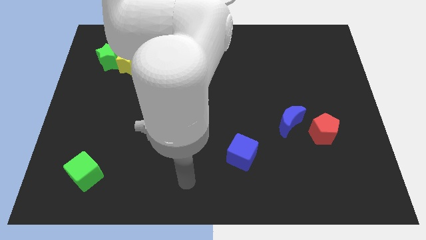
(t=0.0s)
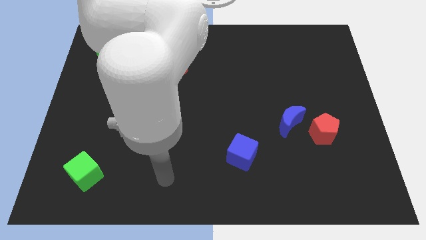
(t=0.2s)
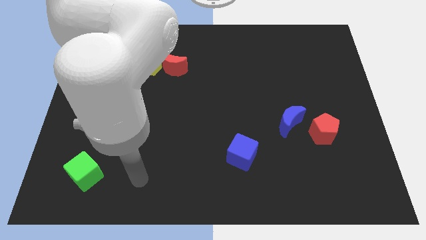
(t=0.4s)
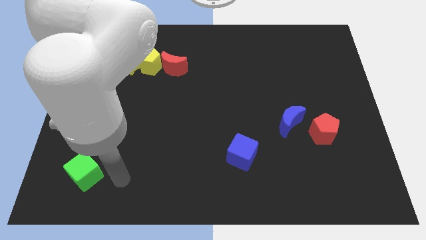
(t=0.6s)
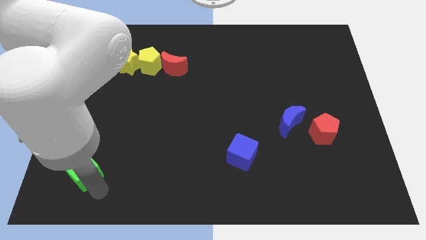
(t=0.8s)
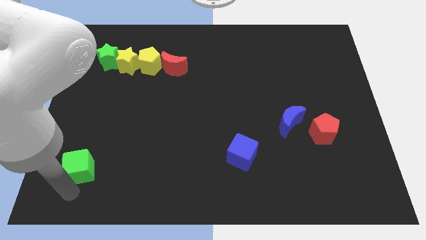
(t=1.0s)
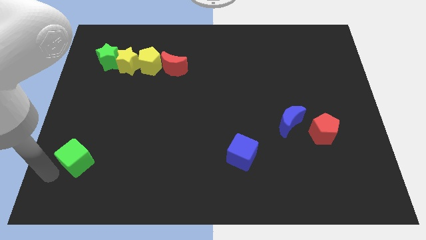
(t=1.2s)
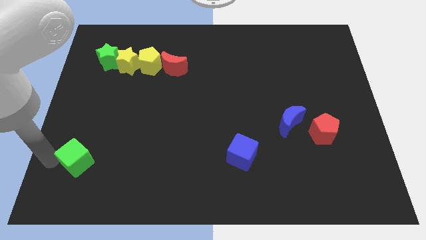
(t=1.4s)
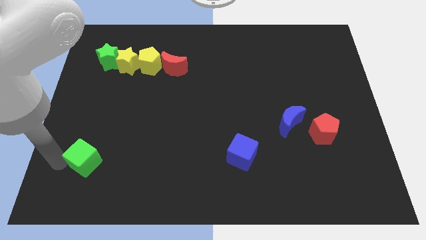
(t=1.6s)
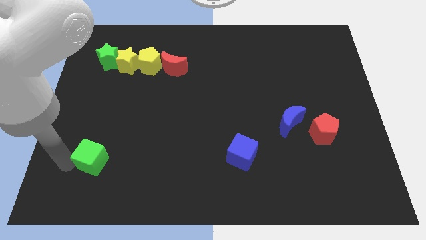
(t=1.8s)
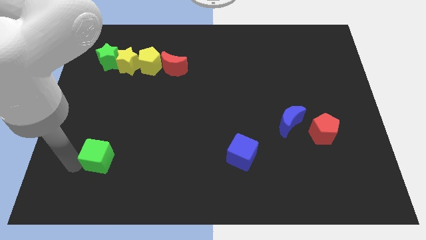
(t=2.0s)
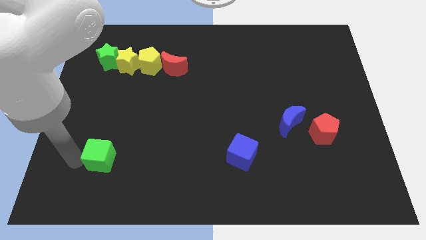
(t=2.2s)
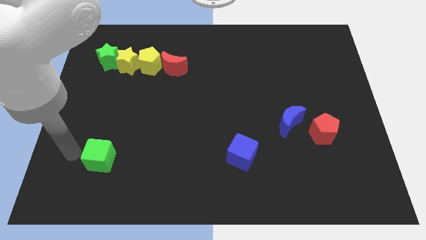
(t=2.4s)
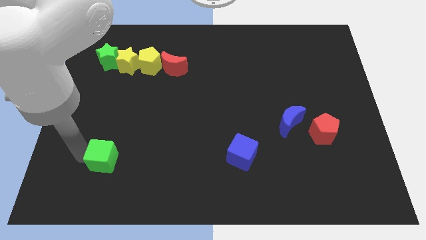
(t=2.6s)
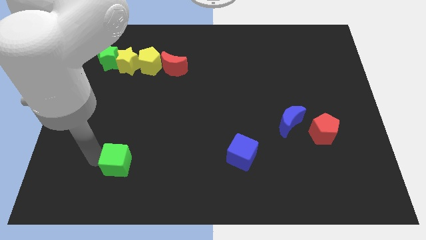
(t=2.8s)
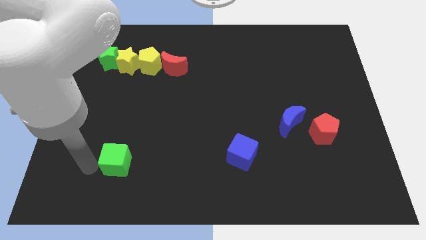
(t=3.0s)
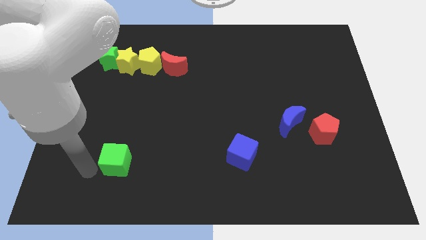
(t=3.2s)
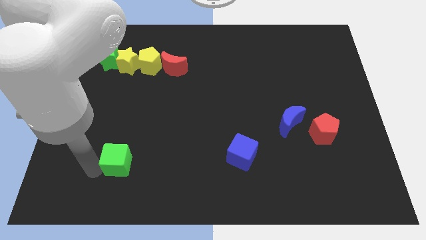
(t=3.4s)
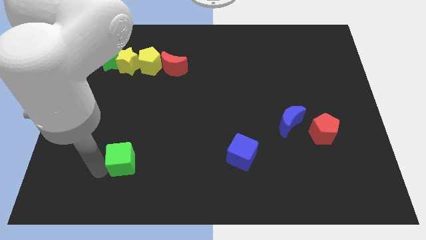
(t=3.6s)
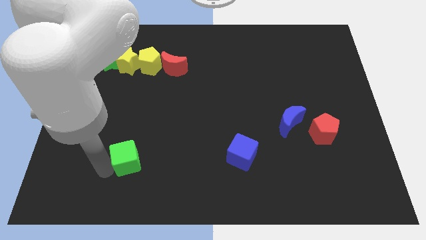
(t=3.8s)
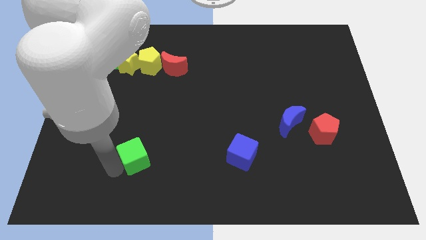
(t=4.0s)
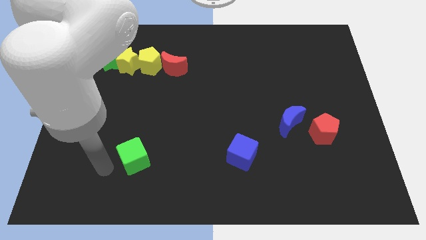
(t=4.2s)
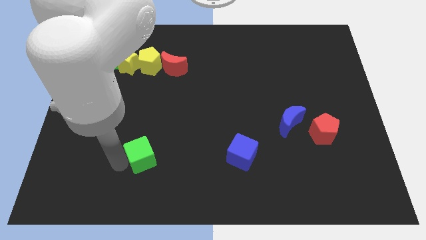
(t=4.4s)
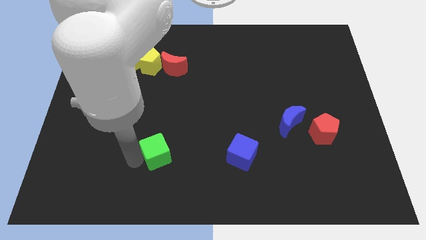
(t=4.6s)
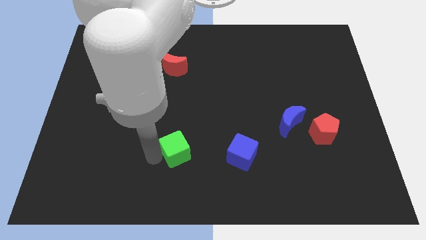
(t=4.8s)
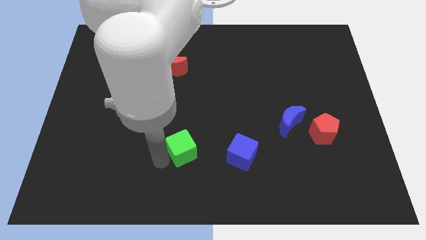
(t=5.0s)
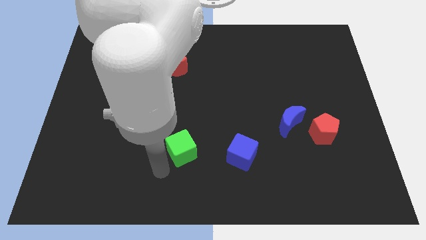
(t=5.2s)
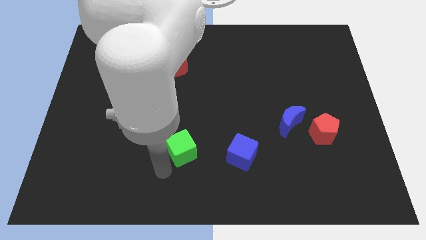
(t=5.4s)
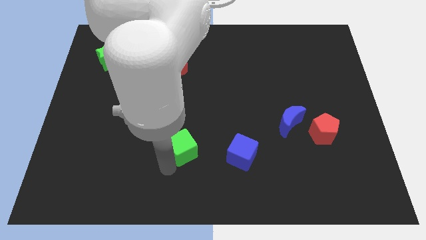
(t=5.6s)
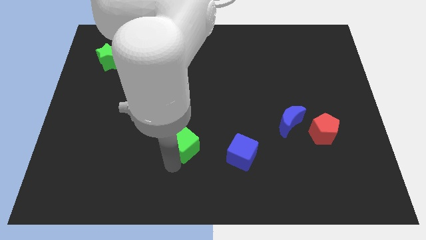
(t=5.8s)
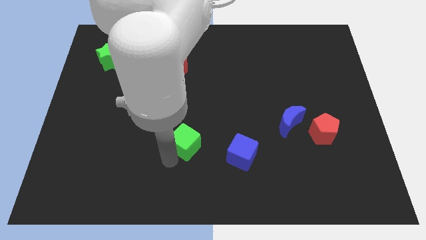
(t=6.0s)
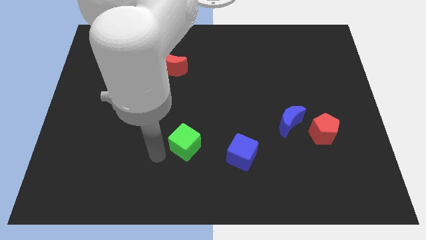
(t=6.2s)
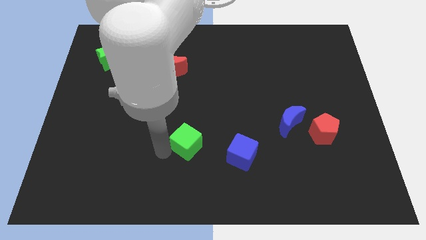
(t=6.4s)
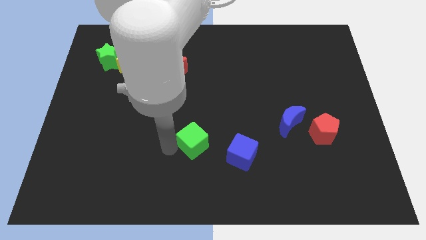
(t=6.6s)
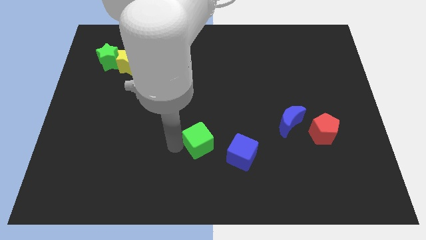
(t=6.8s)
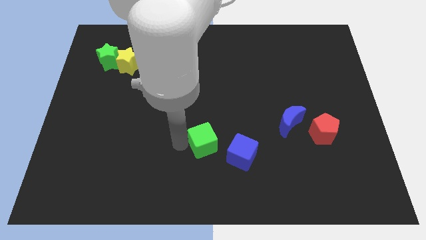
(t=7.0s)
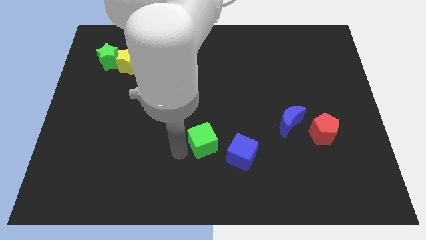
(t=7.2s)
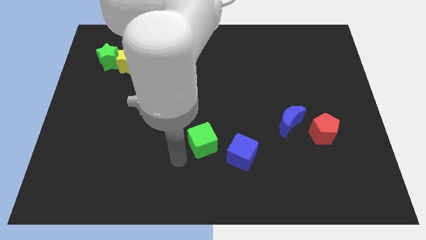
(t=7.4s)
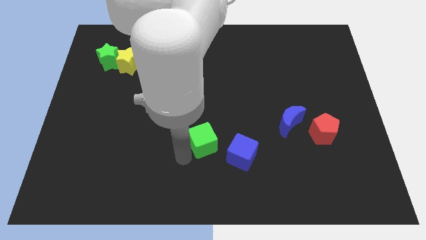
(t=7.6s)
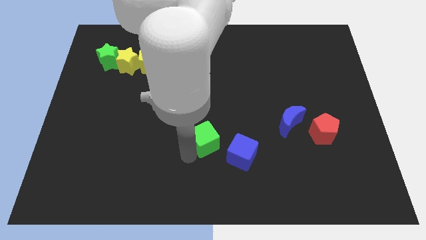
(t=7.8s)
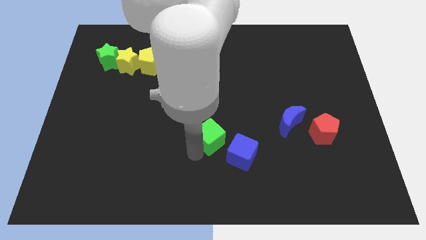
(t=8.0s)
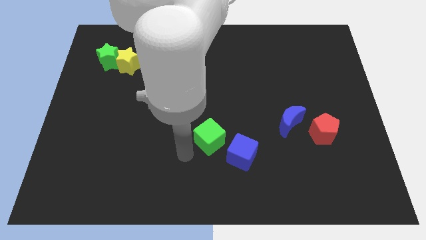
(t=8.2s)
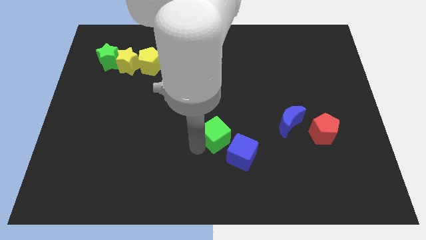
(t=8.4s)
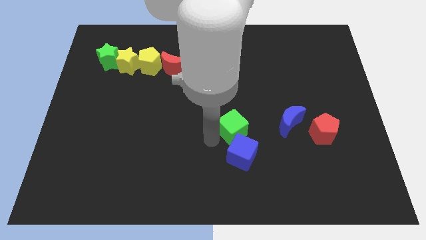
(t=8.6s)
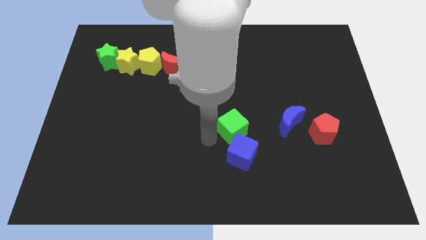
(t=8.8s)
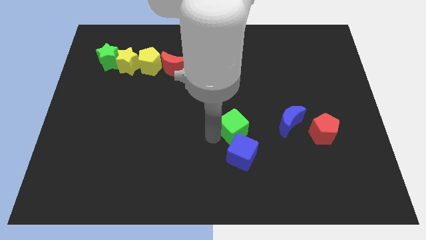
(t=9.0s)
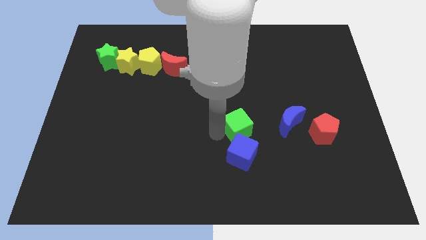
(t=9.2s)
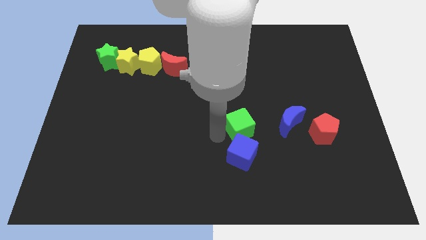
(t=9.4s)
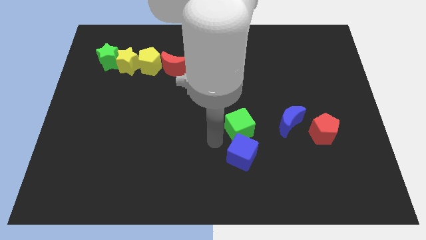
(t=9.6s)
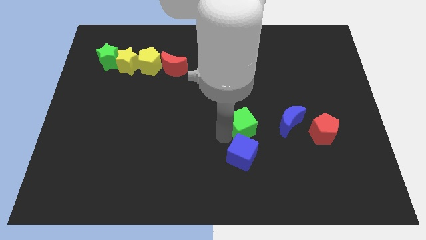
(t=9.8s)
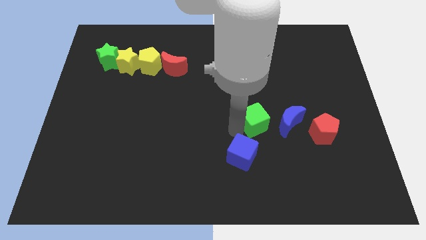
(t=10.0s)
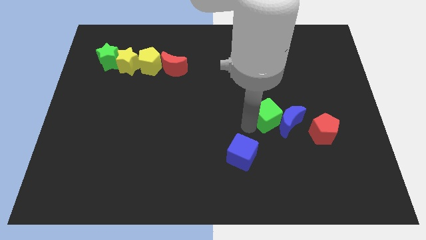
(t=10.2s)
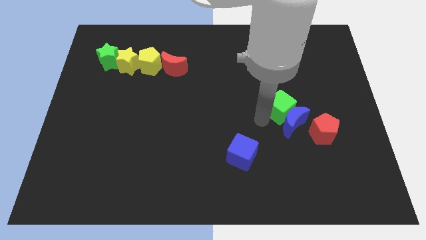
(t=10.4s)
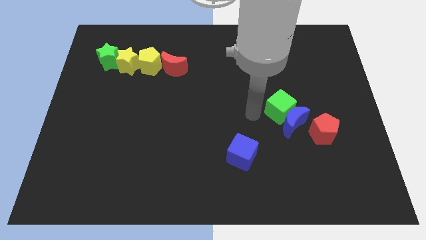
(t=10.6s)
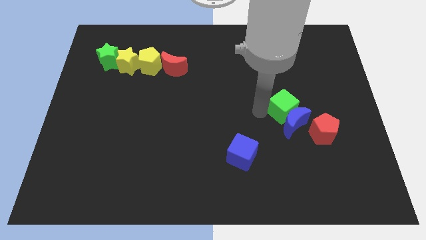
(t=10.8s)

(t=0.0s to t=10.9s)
put the green cube to the top right of the blue moon

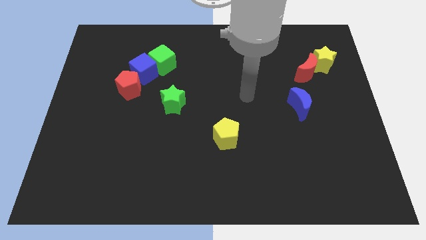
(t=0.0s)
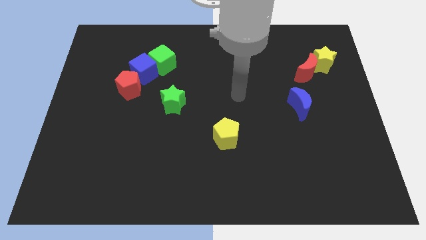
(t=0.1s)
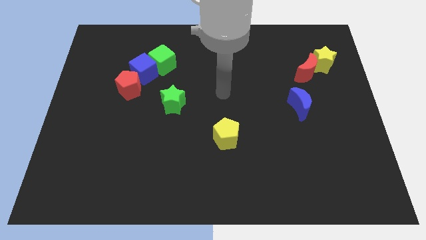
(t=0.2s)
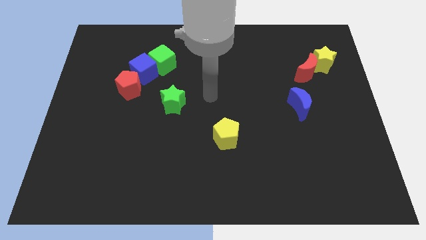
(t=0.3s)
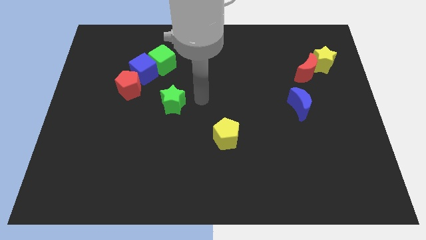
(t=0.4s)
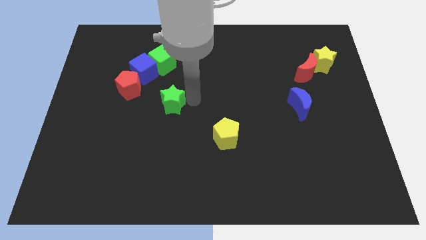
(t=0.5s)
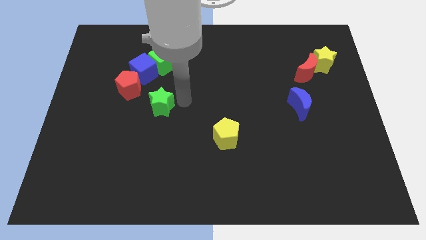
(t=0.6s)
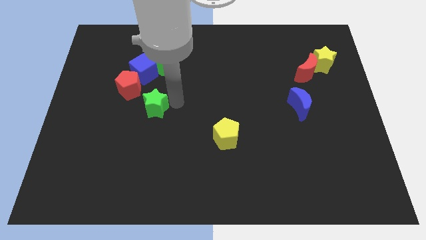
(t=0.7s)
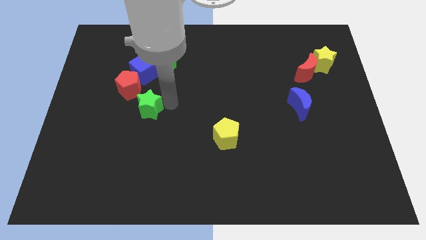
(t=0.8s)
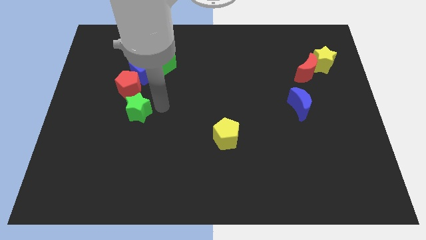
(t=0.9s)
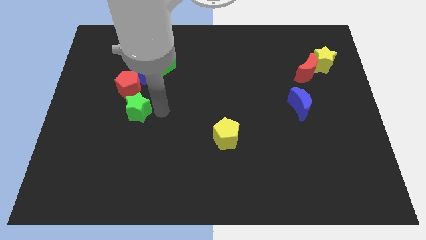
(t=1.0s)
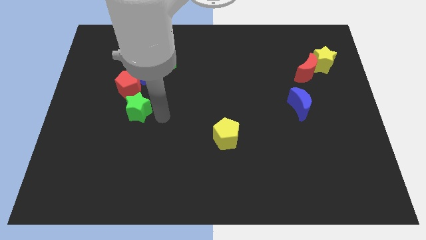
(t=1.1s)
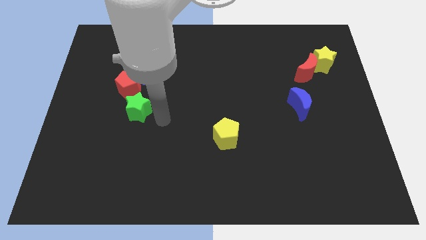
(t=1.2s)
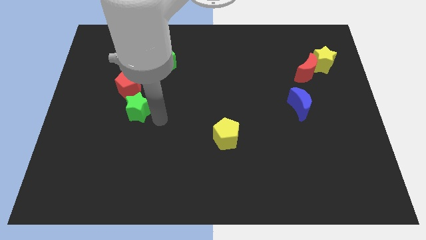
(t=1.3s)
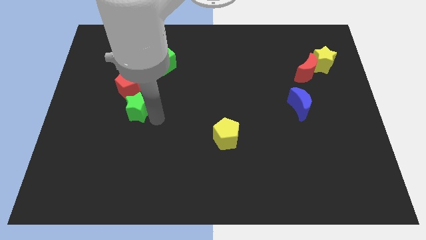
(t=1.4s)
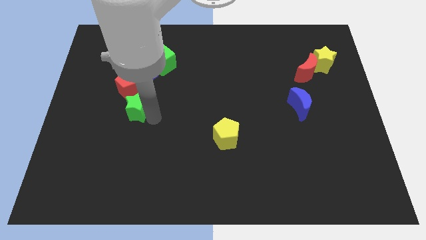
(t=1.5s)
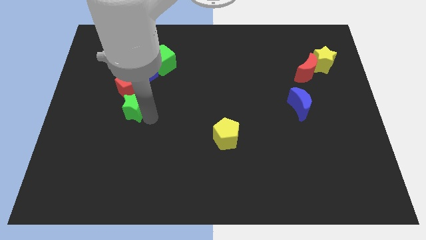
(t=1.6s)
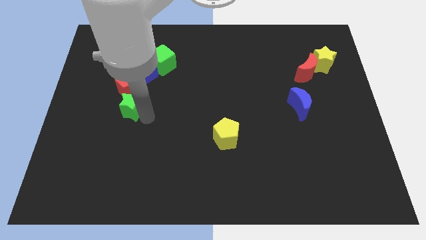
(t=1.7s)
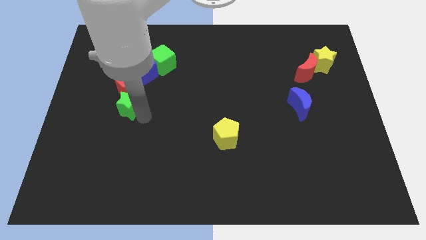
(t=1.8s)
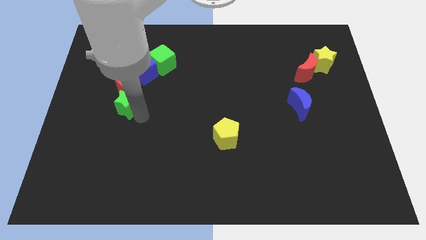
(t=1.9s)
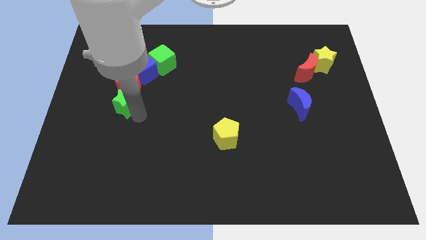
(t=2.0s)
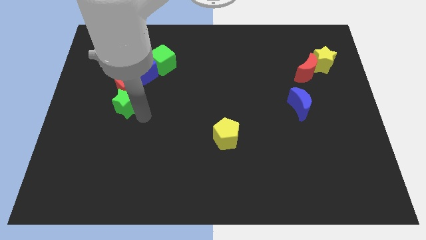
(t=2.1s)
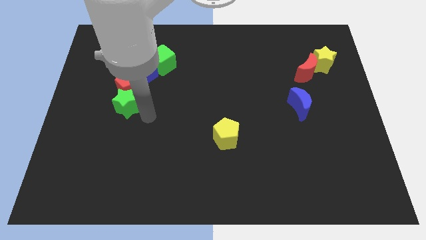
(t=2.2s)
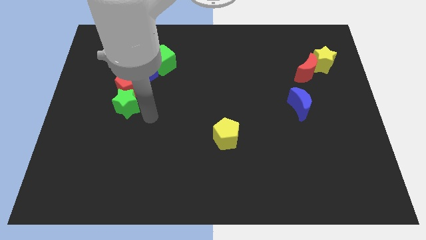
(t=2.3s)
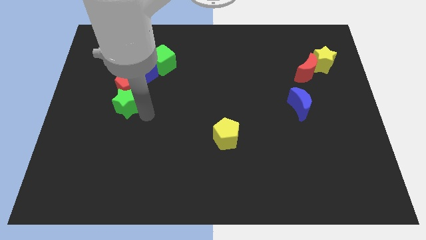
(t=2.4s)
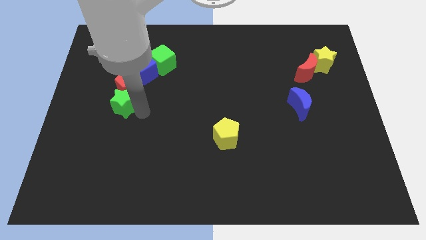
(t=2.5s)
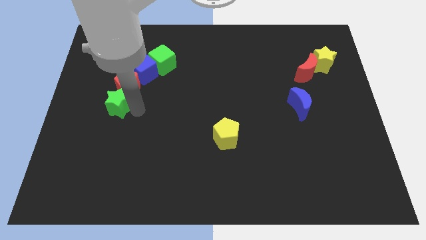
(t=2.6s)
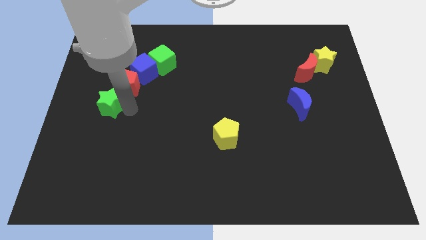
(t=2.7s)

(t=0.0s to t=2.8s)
push the green star diagonally down and to the left of the blue cube
